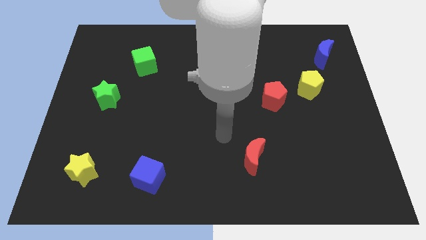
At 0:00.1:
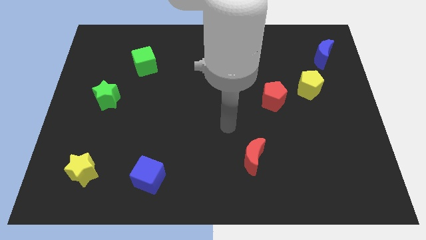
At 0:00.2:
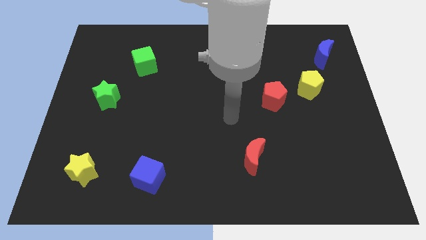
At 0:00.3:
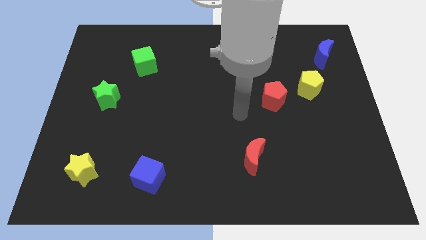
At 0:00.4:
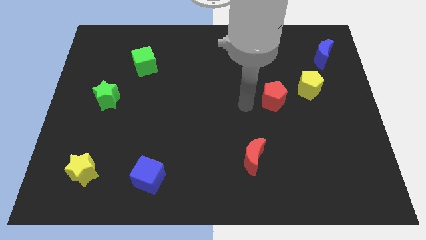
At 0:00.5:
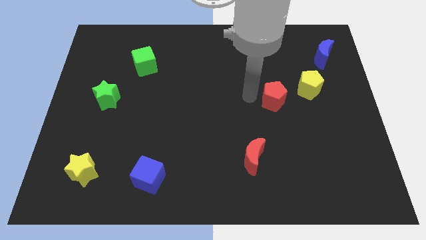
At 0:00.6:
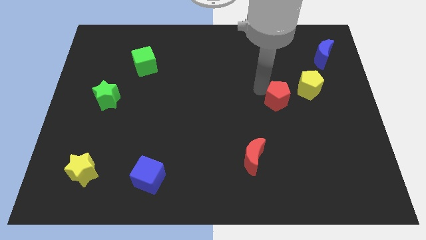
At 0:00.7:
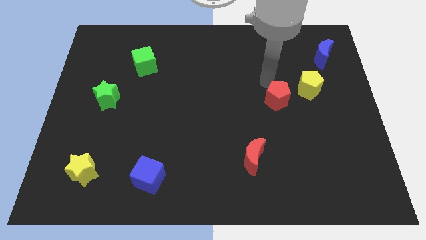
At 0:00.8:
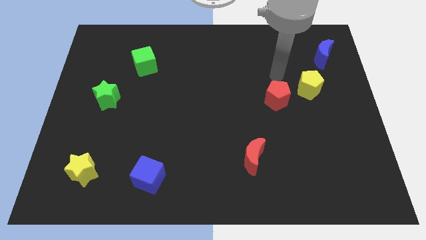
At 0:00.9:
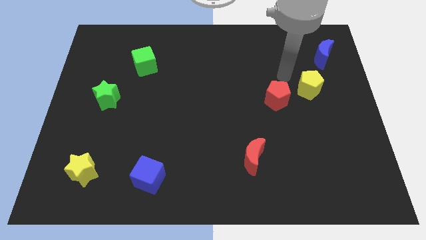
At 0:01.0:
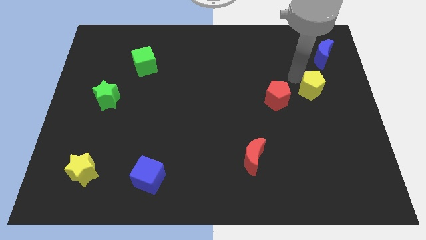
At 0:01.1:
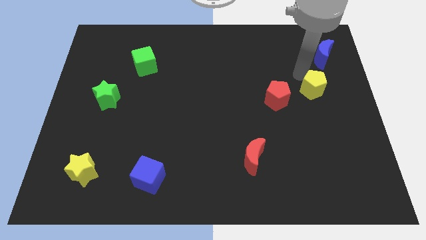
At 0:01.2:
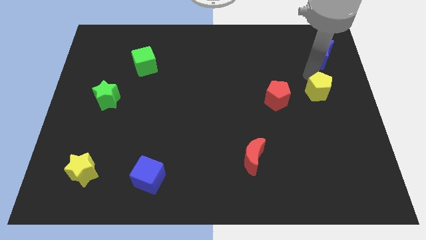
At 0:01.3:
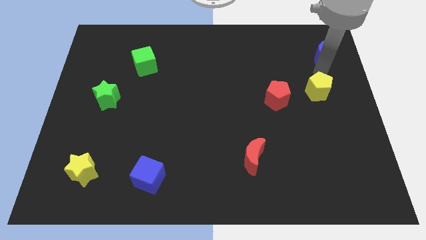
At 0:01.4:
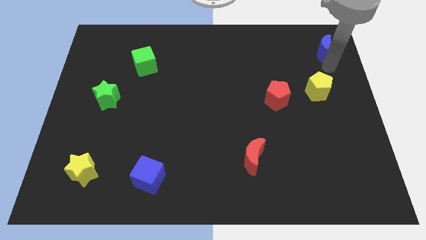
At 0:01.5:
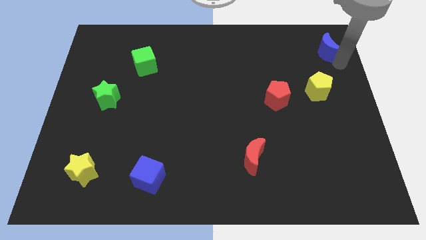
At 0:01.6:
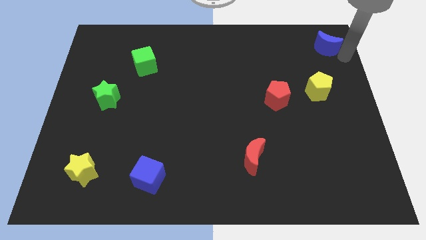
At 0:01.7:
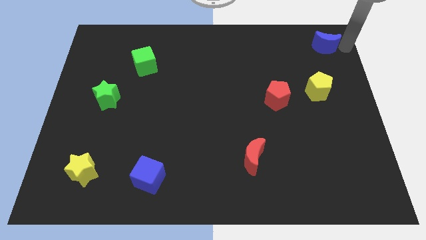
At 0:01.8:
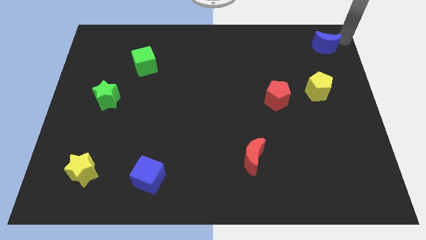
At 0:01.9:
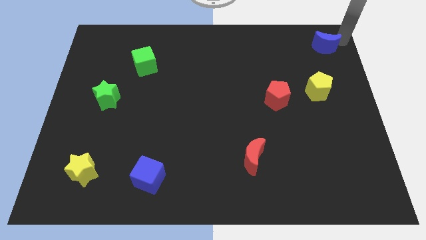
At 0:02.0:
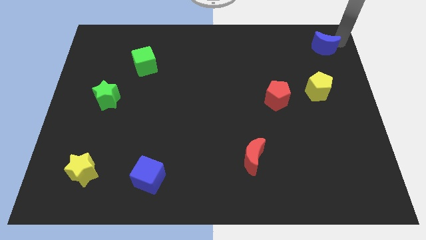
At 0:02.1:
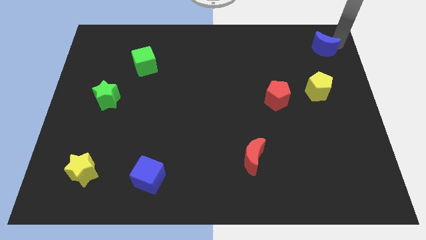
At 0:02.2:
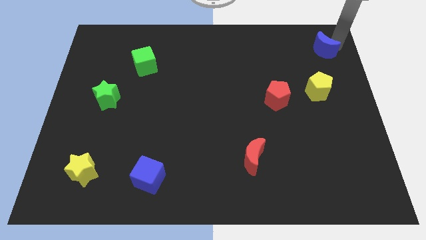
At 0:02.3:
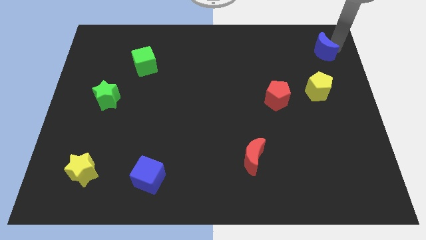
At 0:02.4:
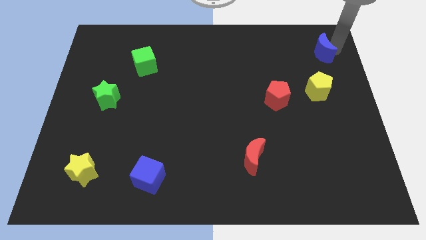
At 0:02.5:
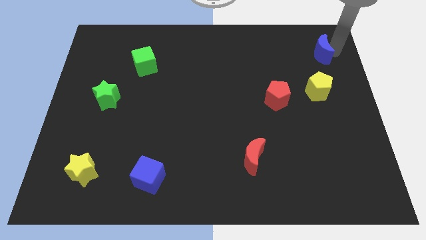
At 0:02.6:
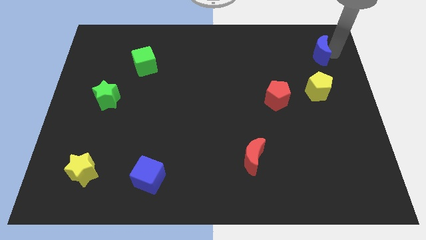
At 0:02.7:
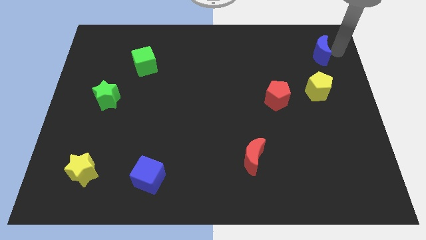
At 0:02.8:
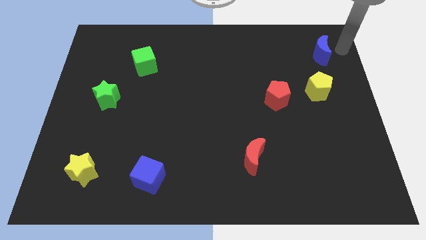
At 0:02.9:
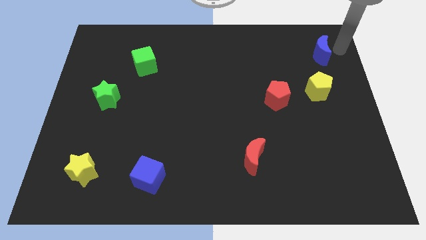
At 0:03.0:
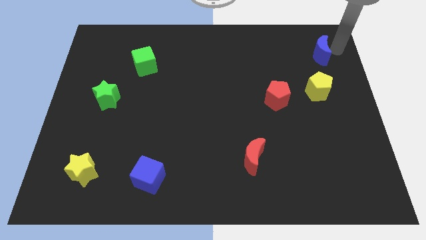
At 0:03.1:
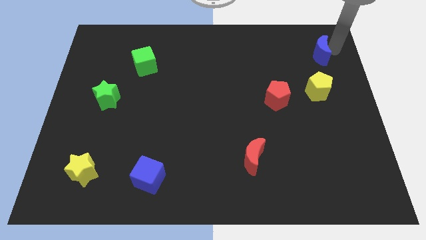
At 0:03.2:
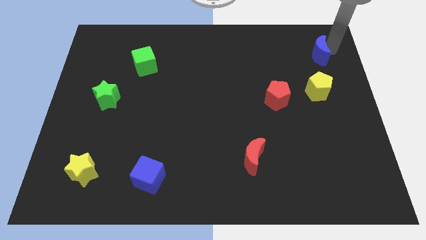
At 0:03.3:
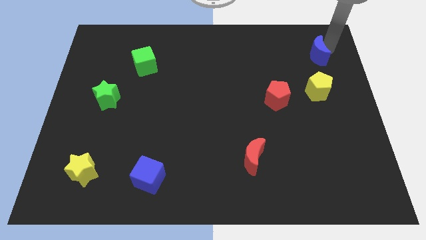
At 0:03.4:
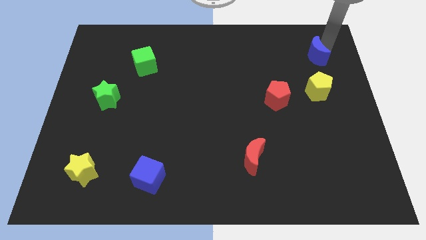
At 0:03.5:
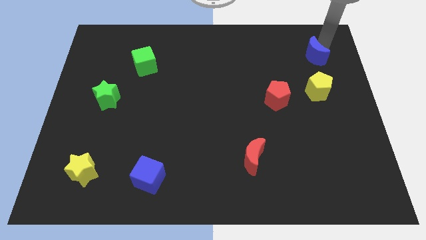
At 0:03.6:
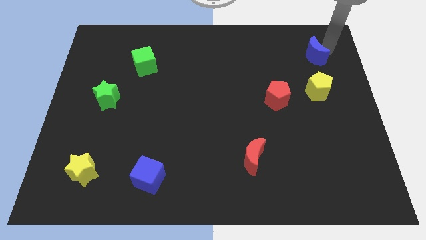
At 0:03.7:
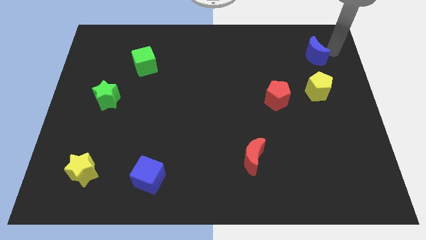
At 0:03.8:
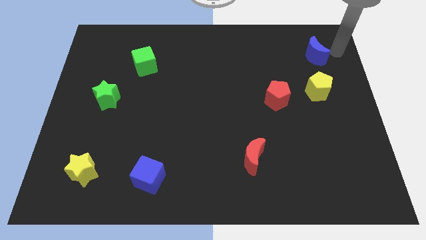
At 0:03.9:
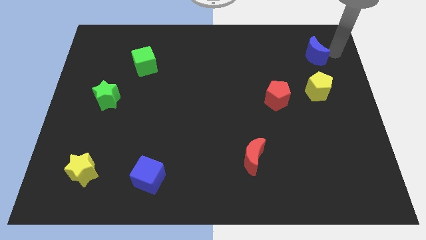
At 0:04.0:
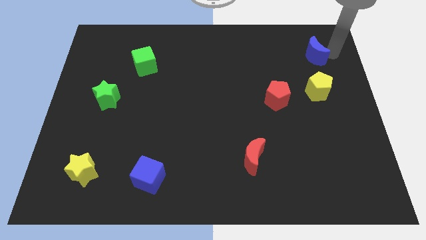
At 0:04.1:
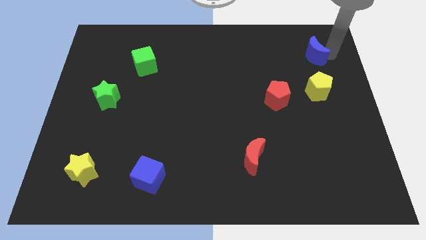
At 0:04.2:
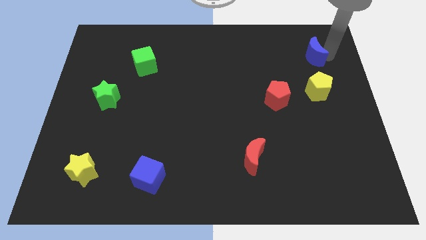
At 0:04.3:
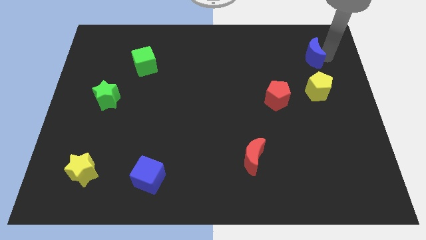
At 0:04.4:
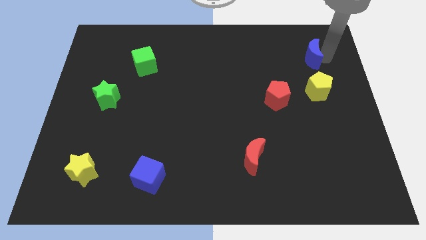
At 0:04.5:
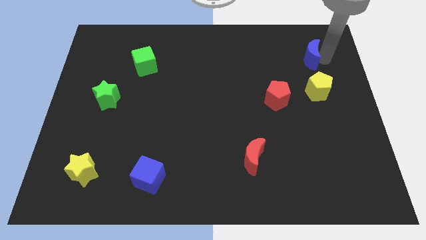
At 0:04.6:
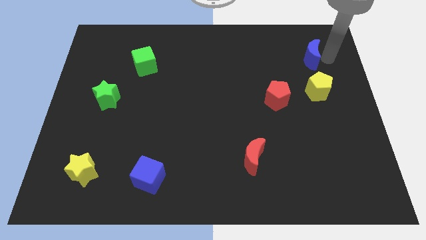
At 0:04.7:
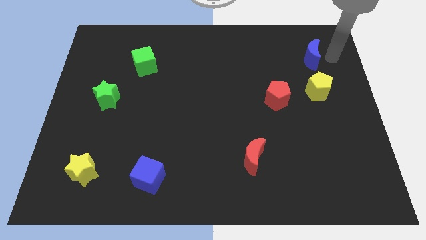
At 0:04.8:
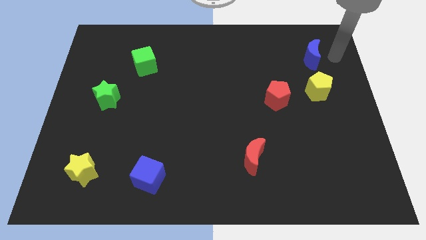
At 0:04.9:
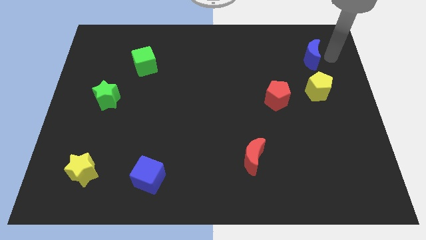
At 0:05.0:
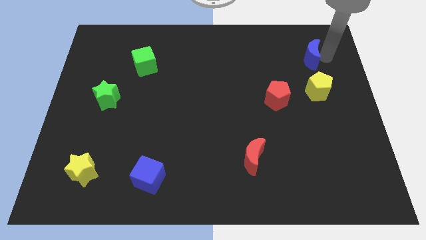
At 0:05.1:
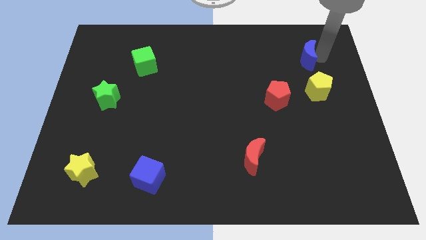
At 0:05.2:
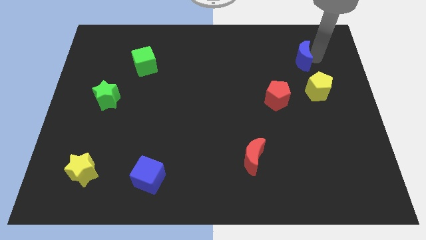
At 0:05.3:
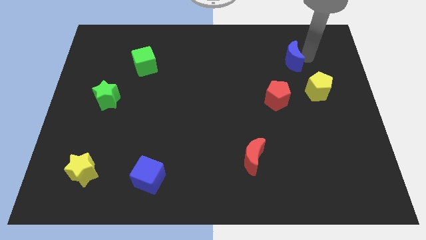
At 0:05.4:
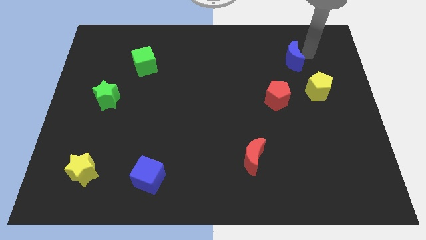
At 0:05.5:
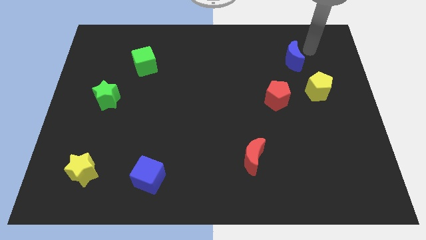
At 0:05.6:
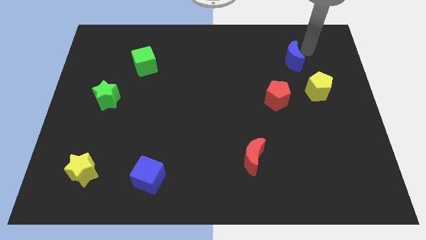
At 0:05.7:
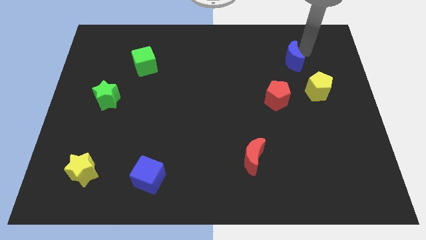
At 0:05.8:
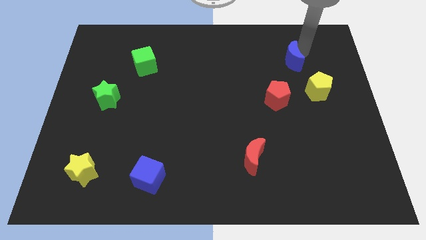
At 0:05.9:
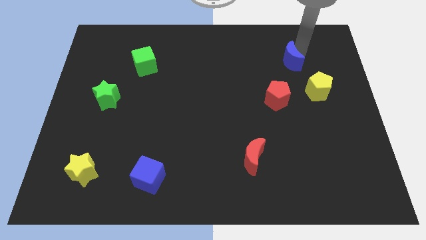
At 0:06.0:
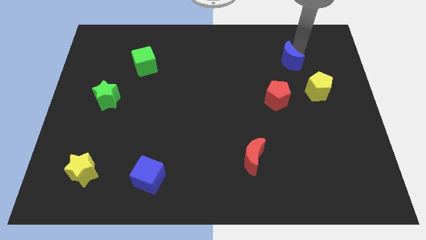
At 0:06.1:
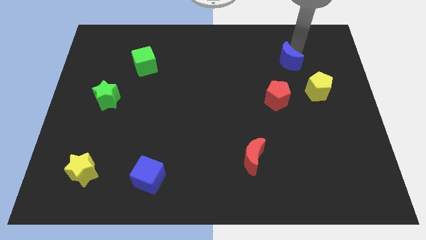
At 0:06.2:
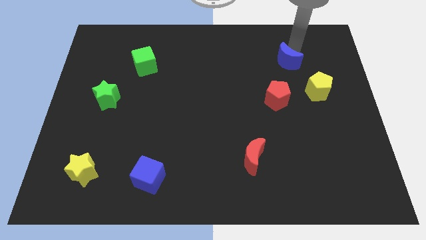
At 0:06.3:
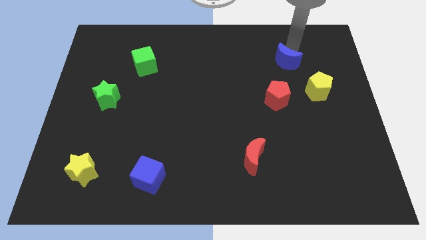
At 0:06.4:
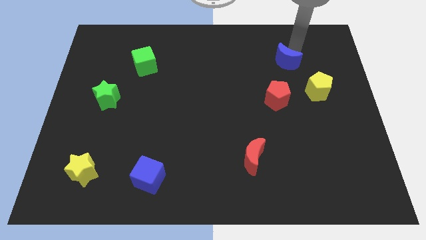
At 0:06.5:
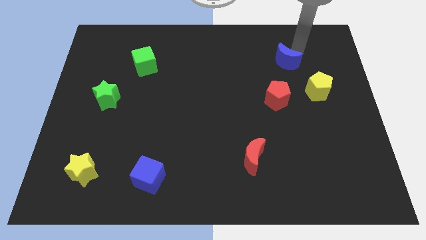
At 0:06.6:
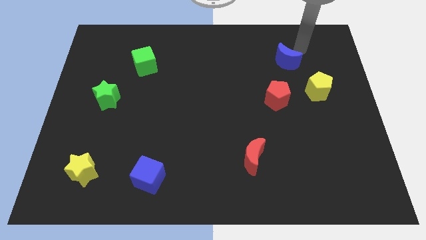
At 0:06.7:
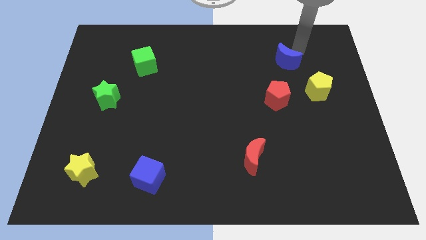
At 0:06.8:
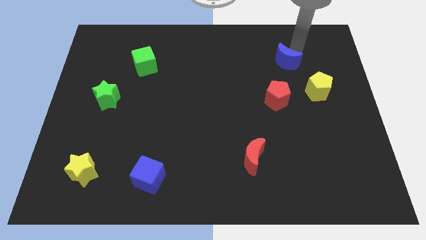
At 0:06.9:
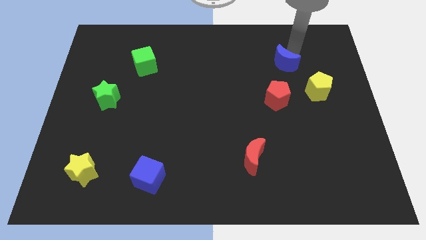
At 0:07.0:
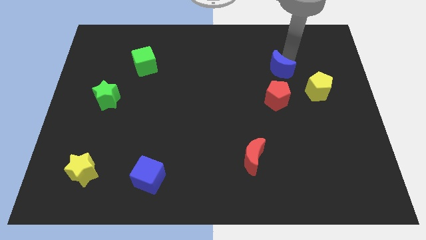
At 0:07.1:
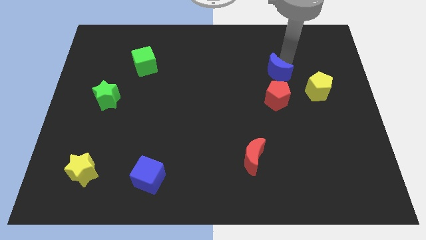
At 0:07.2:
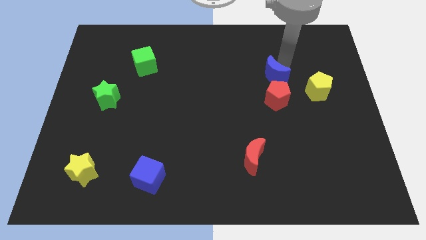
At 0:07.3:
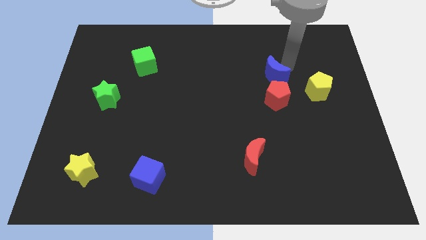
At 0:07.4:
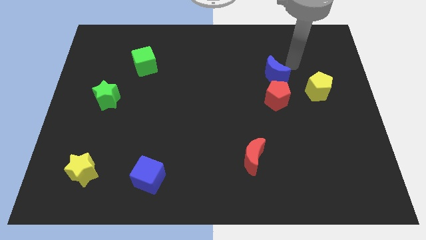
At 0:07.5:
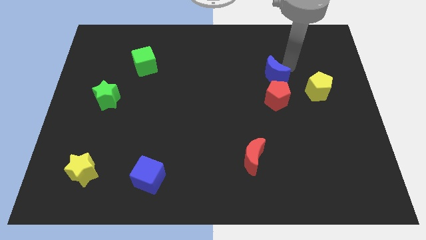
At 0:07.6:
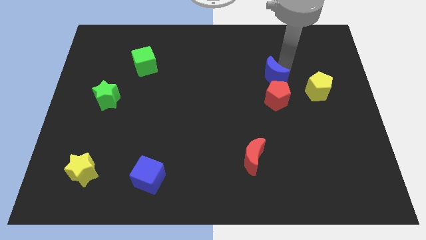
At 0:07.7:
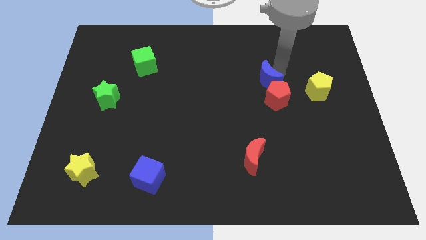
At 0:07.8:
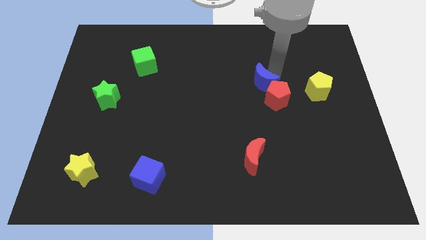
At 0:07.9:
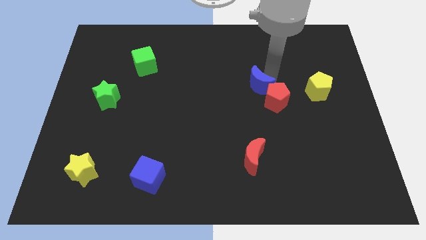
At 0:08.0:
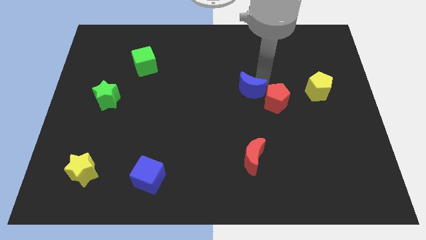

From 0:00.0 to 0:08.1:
move the blue moon diagonally down and left
